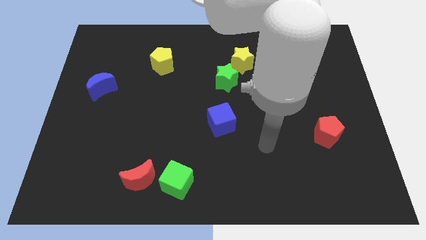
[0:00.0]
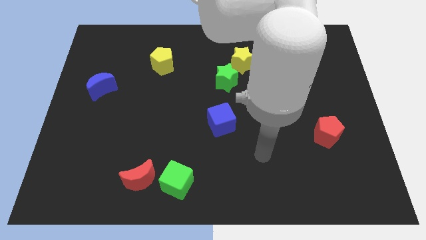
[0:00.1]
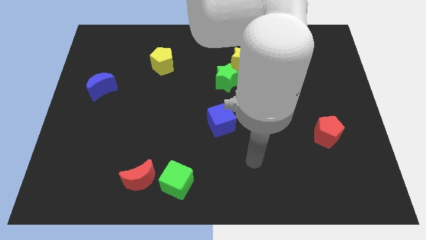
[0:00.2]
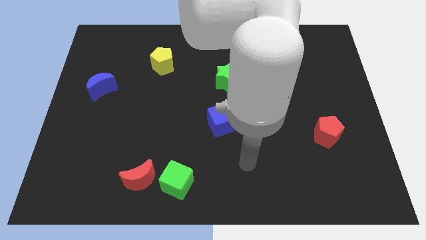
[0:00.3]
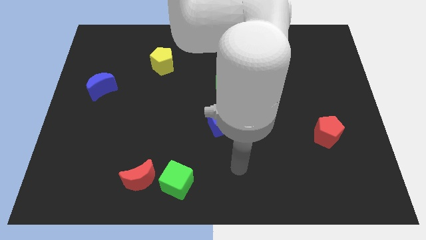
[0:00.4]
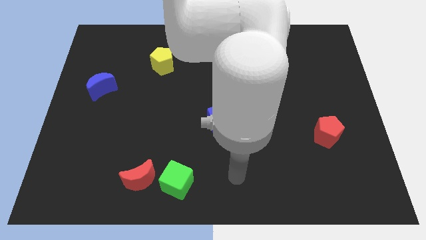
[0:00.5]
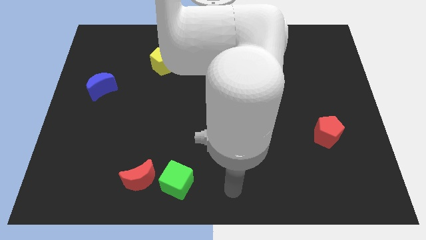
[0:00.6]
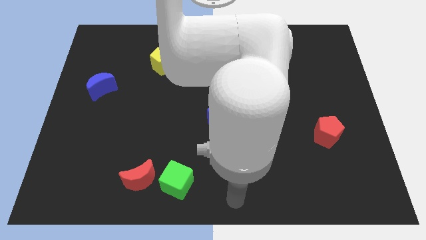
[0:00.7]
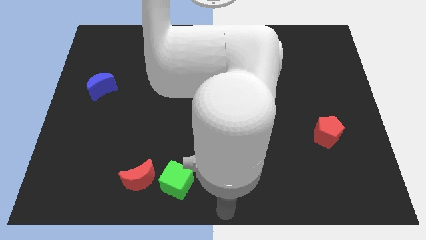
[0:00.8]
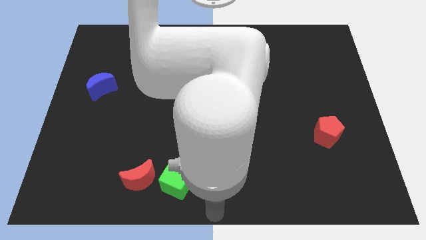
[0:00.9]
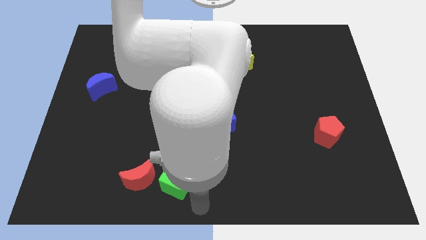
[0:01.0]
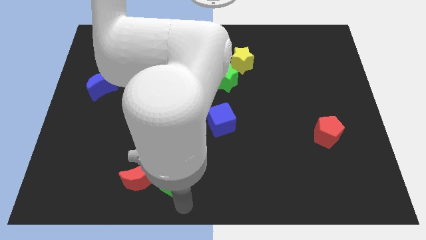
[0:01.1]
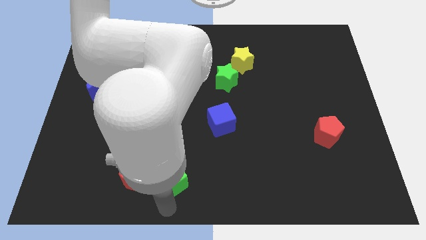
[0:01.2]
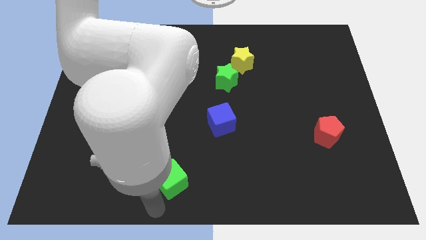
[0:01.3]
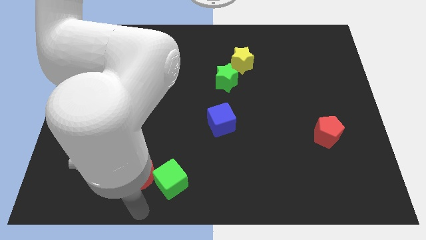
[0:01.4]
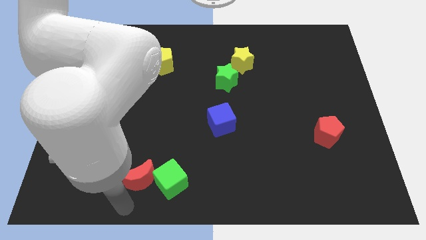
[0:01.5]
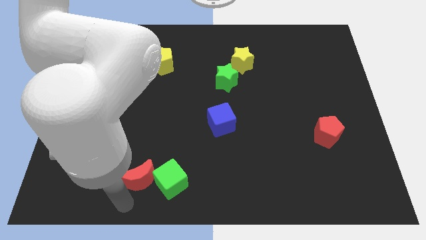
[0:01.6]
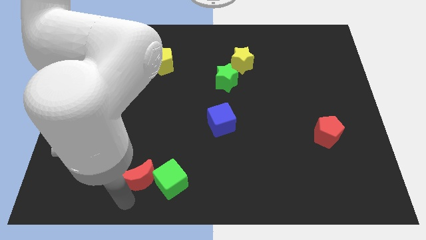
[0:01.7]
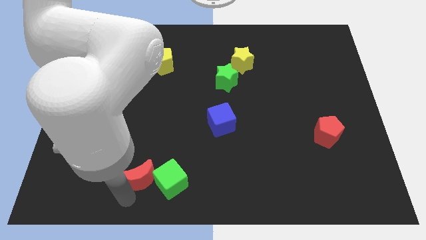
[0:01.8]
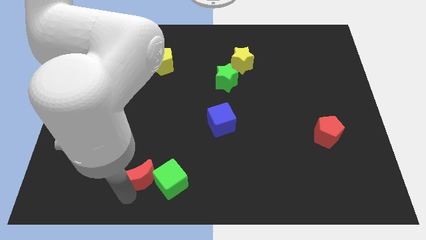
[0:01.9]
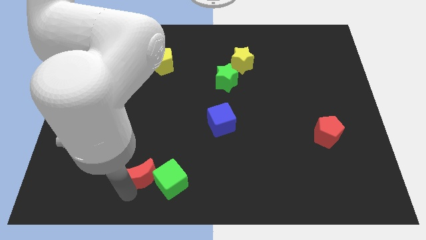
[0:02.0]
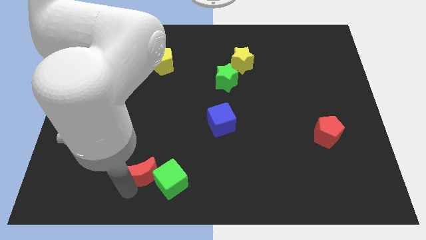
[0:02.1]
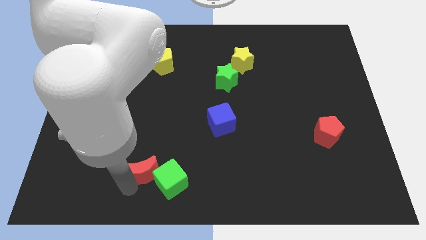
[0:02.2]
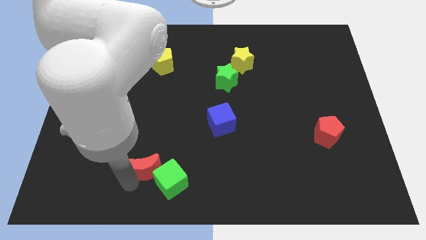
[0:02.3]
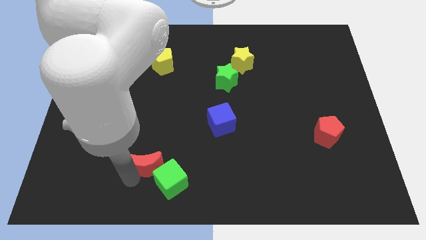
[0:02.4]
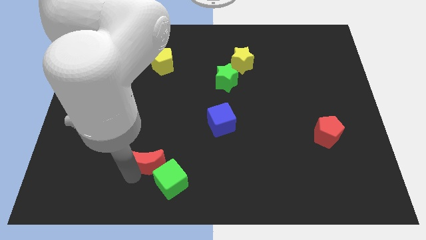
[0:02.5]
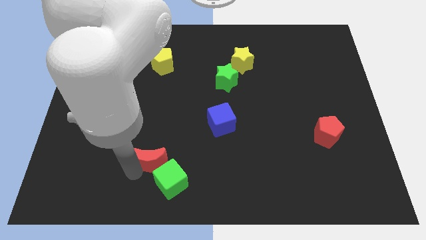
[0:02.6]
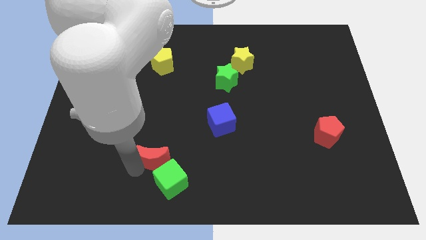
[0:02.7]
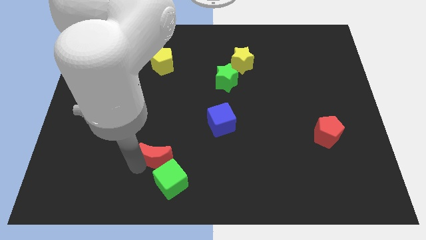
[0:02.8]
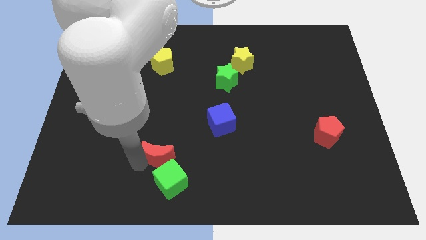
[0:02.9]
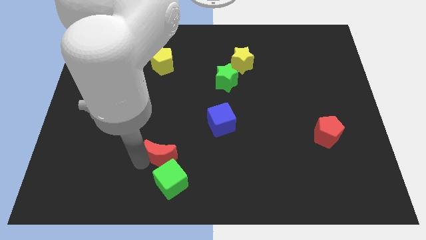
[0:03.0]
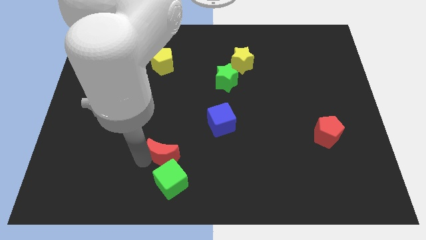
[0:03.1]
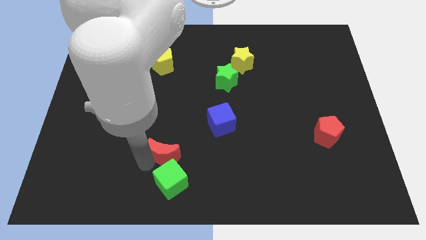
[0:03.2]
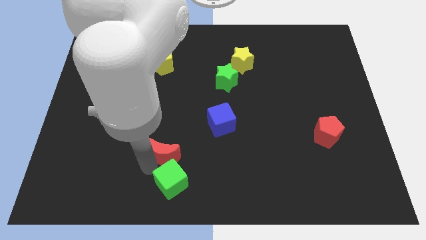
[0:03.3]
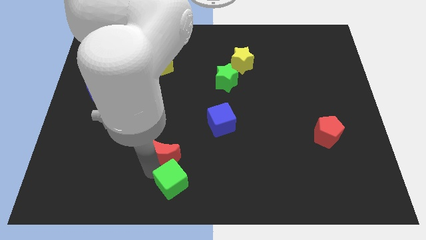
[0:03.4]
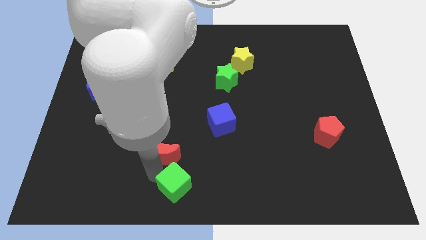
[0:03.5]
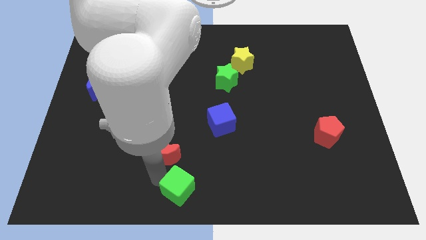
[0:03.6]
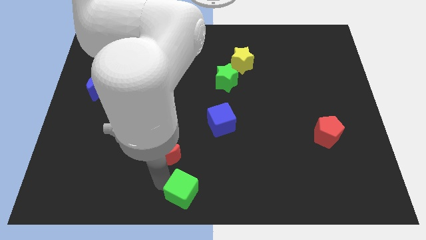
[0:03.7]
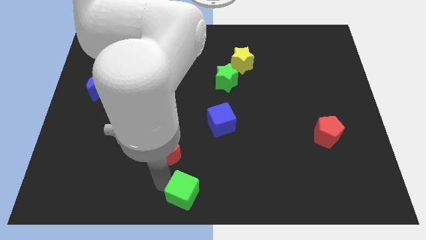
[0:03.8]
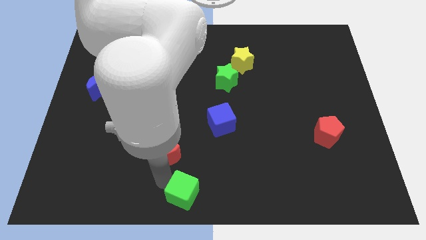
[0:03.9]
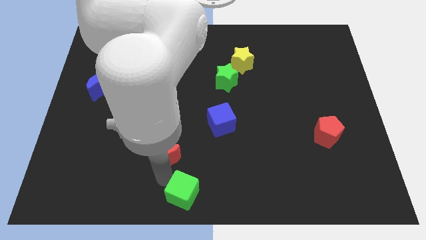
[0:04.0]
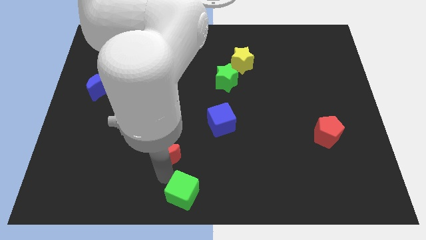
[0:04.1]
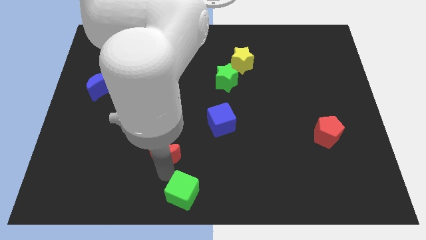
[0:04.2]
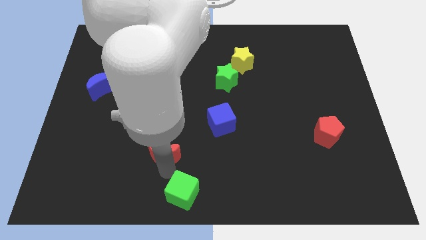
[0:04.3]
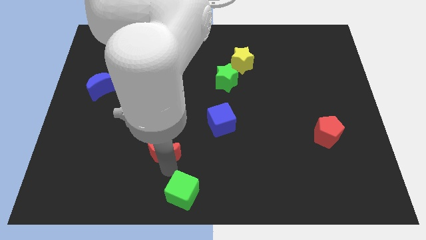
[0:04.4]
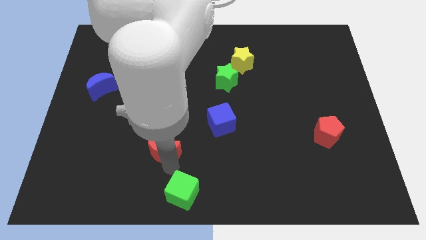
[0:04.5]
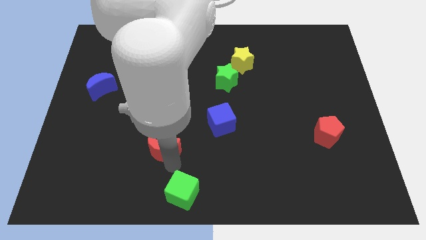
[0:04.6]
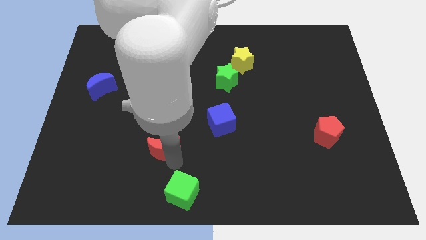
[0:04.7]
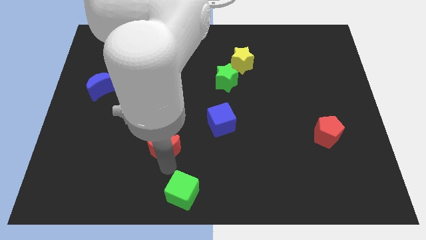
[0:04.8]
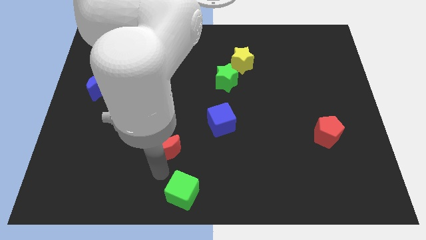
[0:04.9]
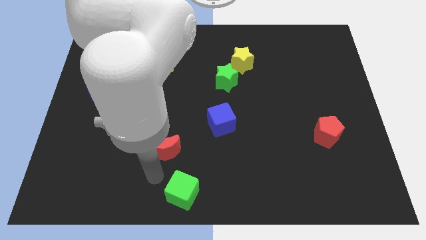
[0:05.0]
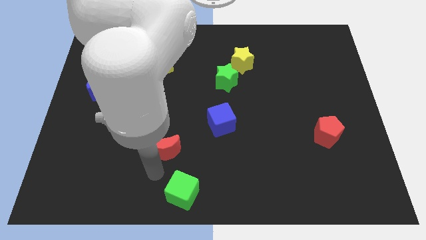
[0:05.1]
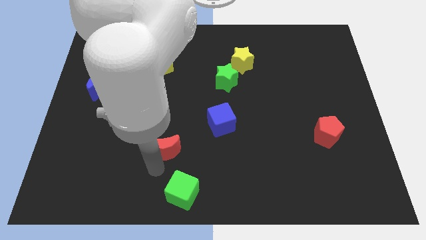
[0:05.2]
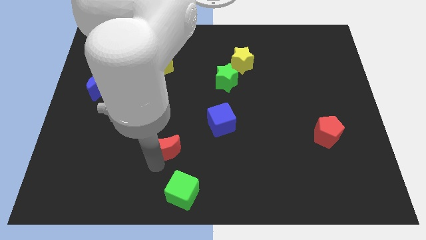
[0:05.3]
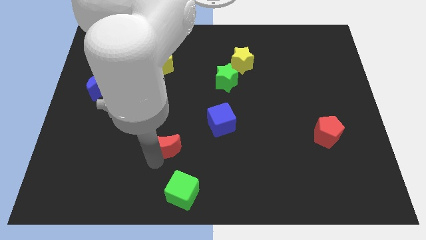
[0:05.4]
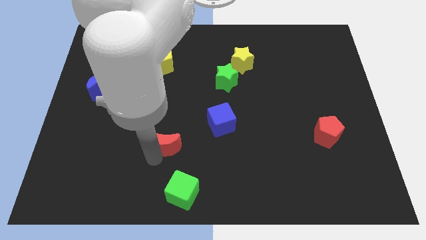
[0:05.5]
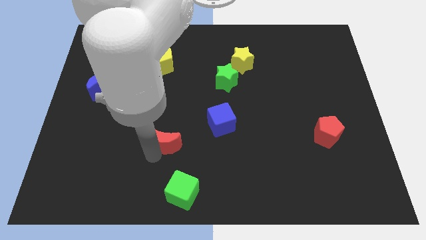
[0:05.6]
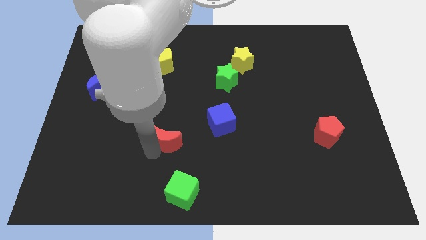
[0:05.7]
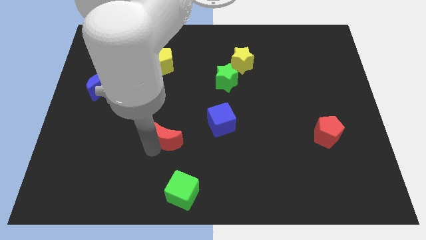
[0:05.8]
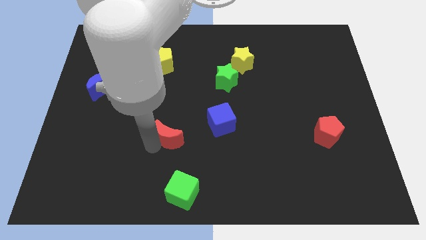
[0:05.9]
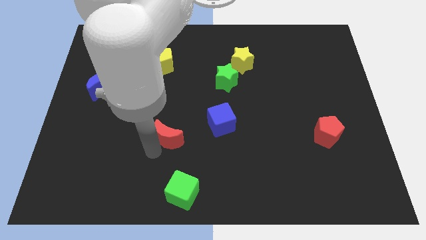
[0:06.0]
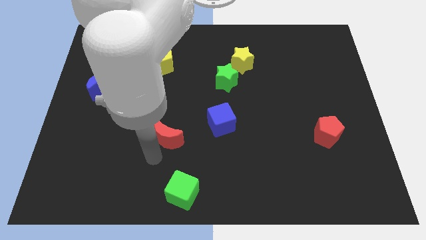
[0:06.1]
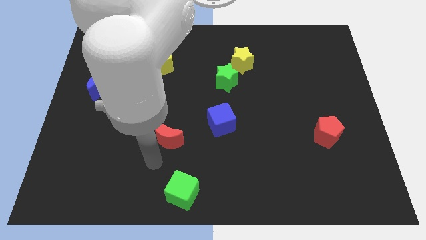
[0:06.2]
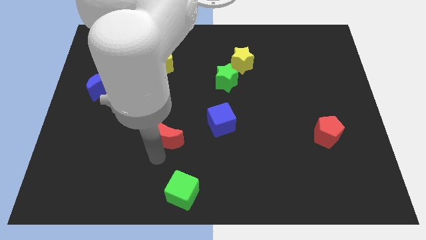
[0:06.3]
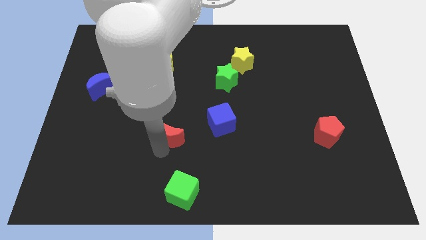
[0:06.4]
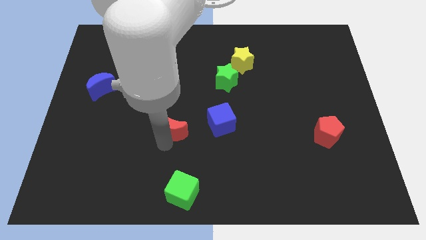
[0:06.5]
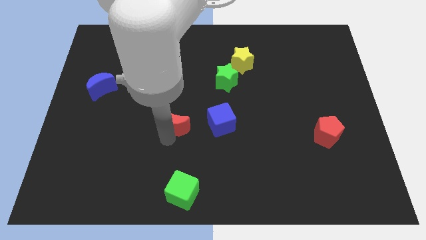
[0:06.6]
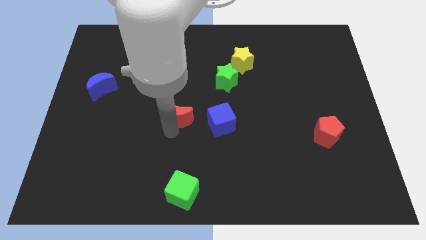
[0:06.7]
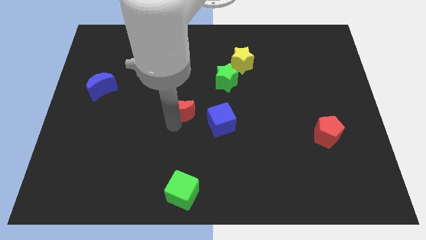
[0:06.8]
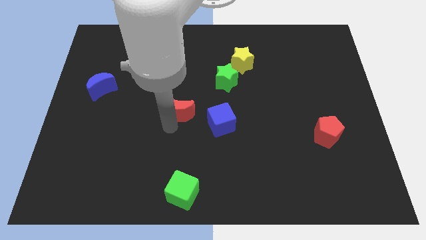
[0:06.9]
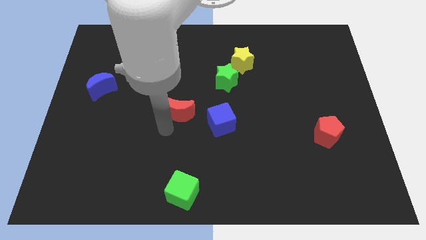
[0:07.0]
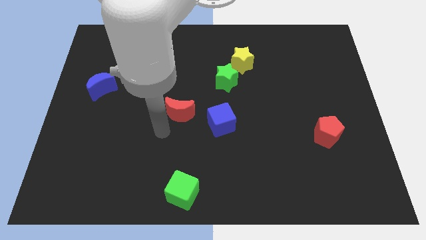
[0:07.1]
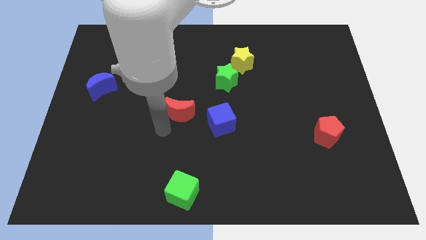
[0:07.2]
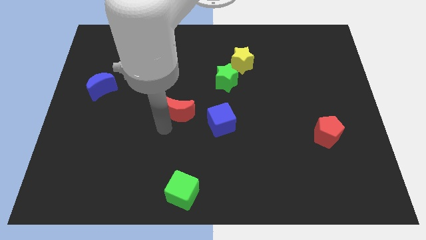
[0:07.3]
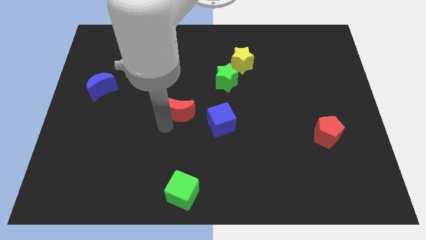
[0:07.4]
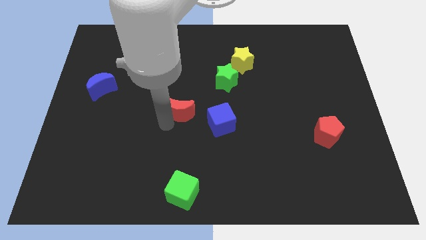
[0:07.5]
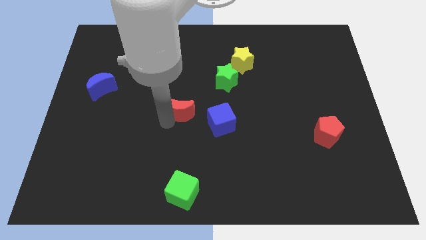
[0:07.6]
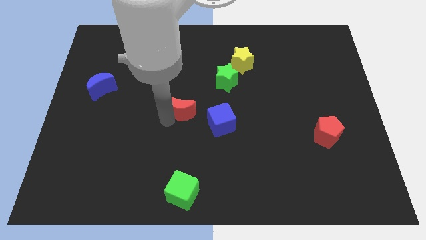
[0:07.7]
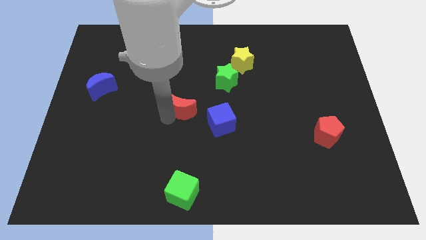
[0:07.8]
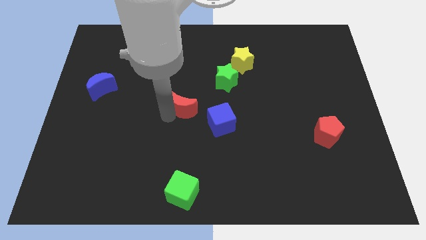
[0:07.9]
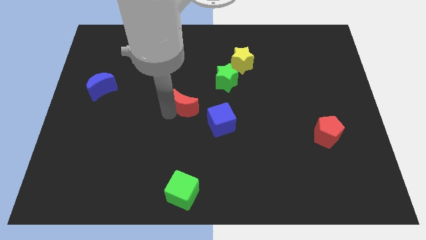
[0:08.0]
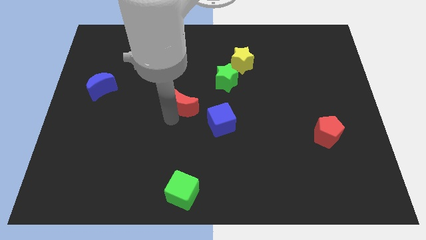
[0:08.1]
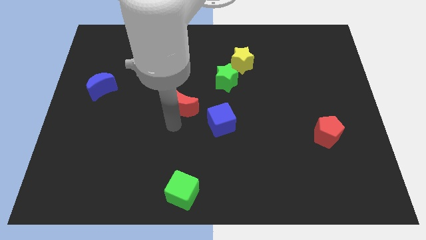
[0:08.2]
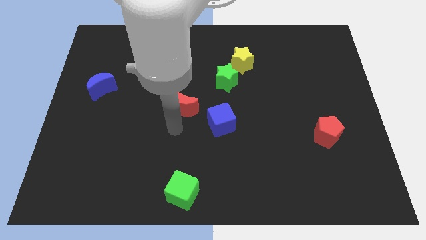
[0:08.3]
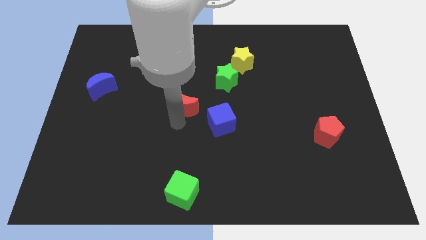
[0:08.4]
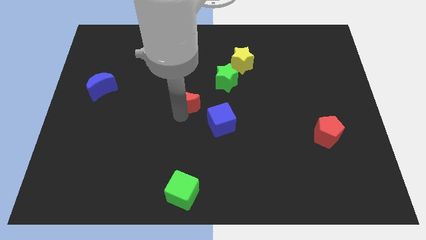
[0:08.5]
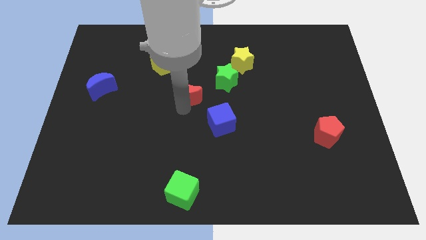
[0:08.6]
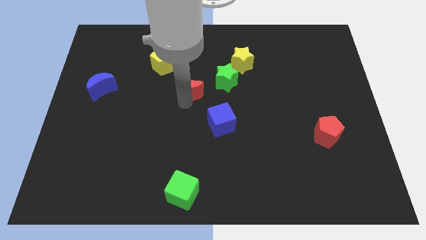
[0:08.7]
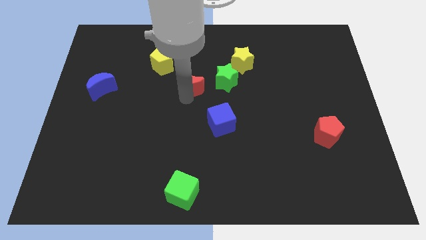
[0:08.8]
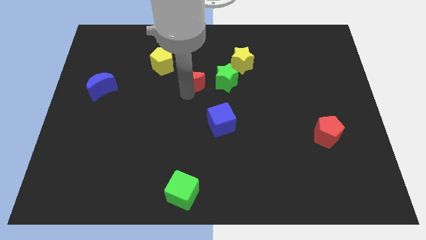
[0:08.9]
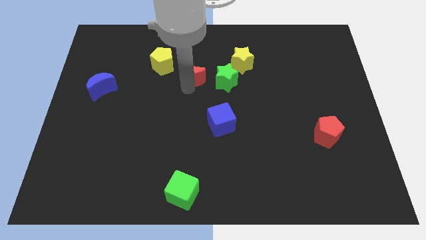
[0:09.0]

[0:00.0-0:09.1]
put the red moon to the right side of the yellow pentagon
